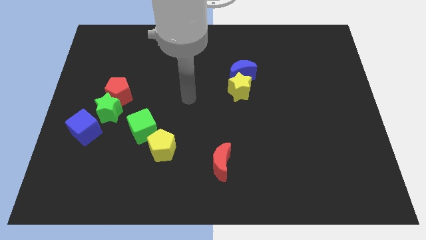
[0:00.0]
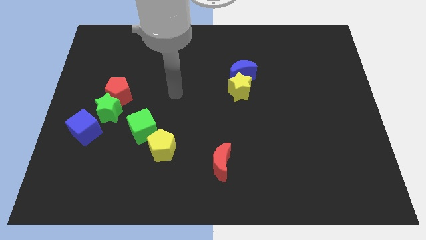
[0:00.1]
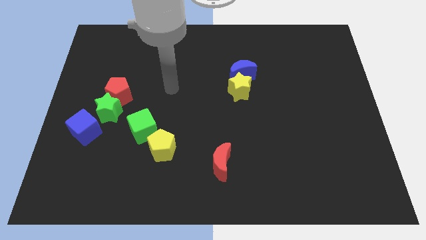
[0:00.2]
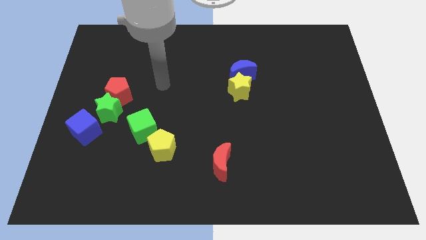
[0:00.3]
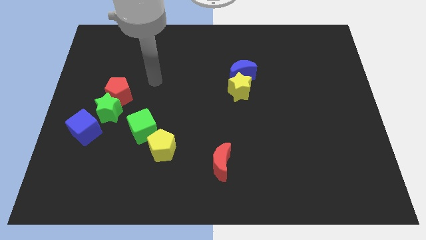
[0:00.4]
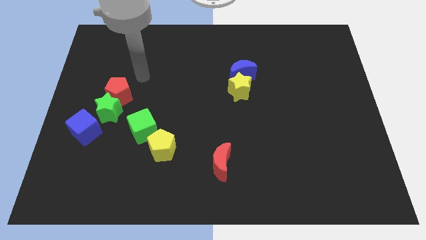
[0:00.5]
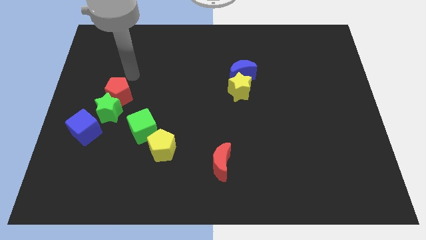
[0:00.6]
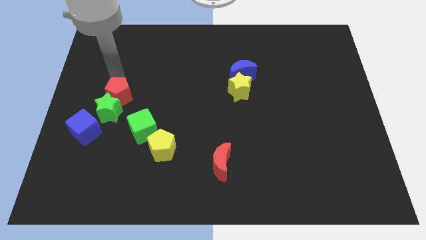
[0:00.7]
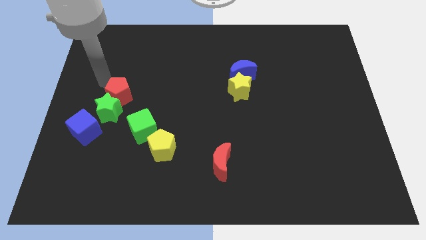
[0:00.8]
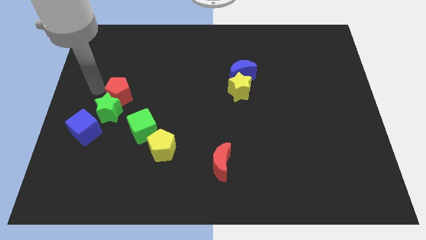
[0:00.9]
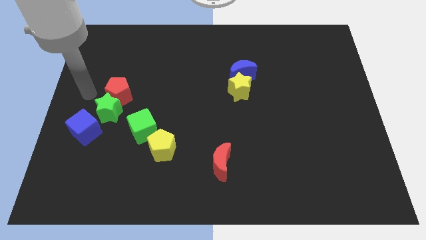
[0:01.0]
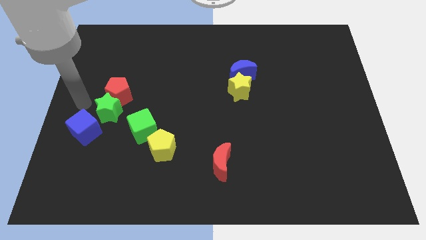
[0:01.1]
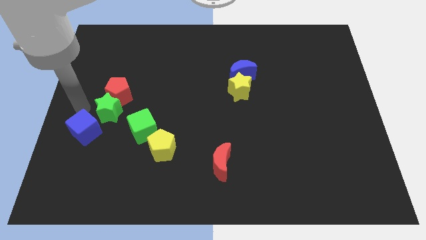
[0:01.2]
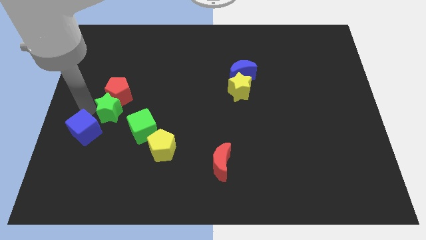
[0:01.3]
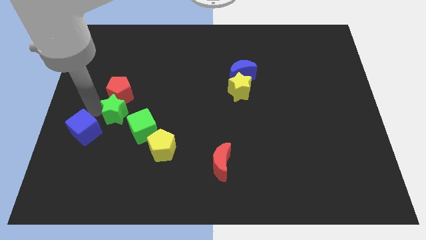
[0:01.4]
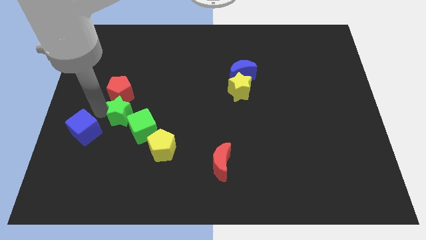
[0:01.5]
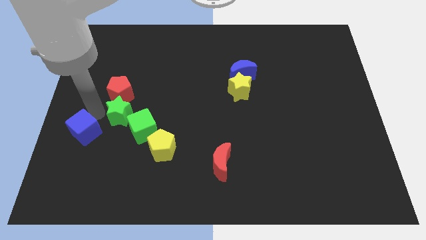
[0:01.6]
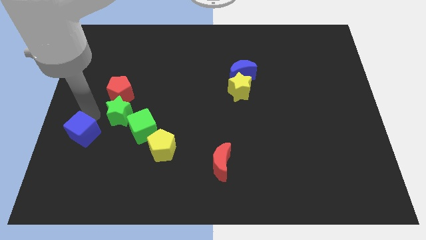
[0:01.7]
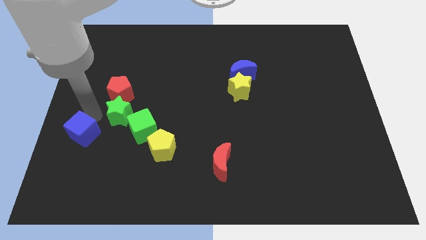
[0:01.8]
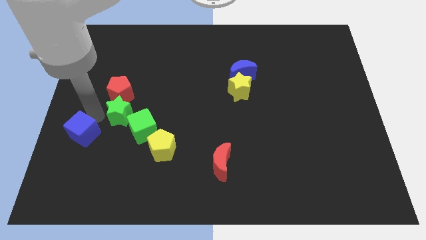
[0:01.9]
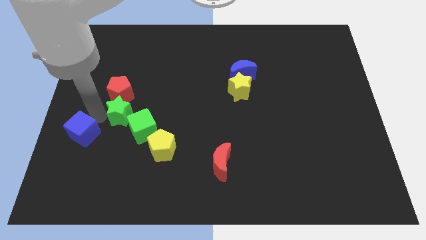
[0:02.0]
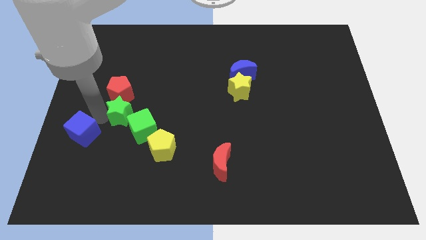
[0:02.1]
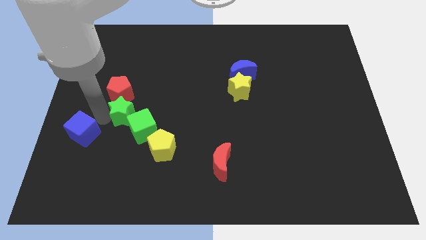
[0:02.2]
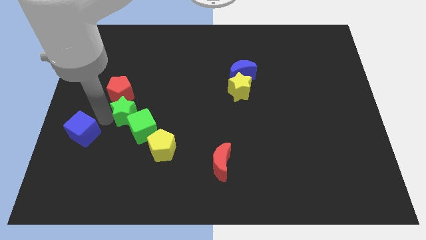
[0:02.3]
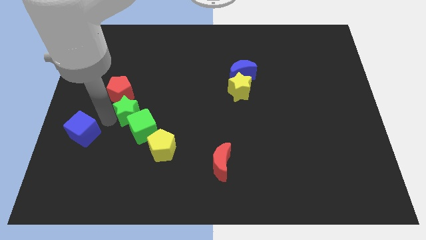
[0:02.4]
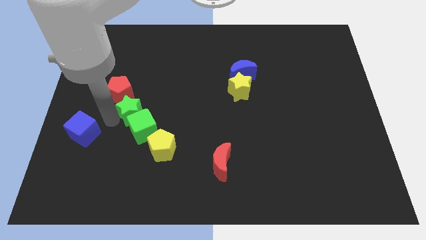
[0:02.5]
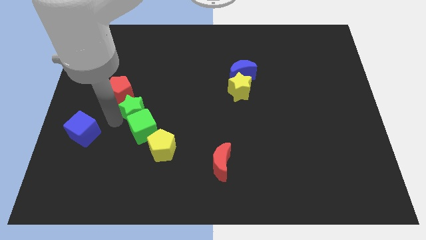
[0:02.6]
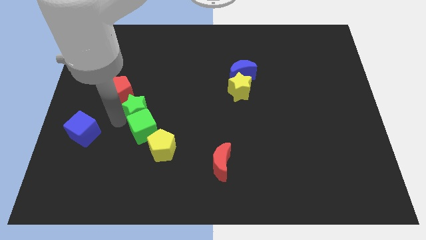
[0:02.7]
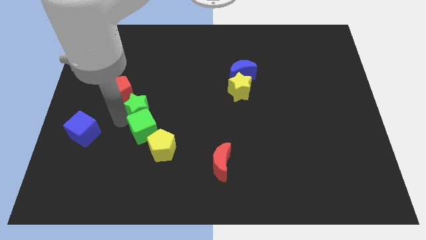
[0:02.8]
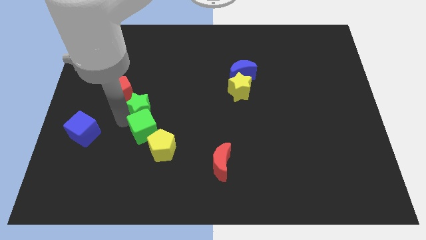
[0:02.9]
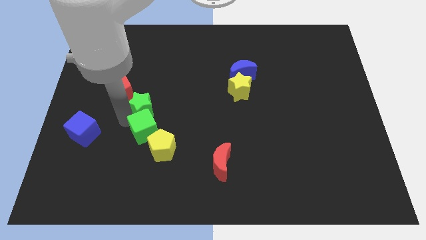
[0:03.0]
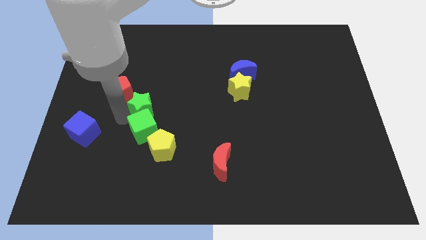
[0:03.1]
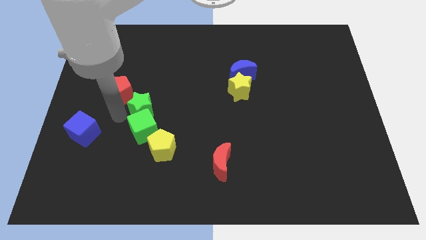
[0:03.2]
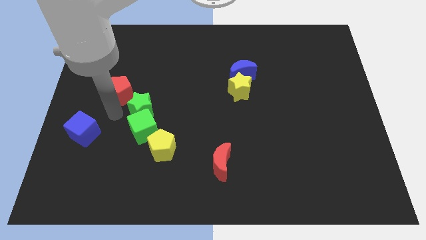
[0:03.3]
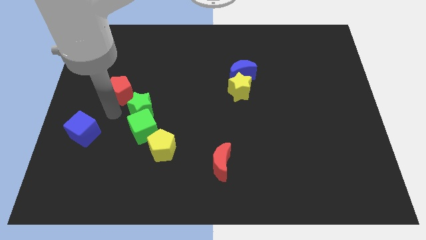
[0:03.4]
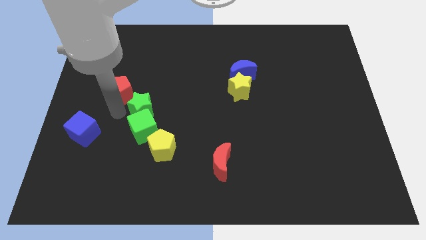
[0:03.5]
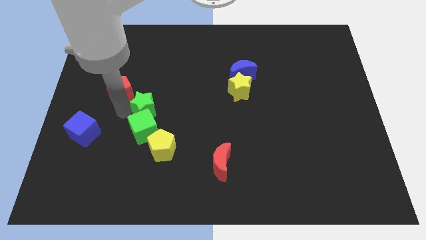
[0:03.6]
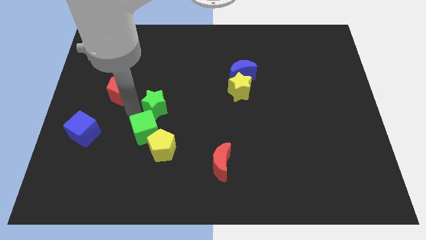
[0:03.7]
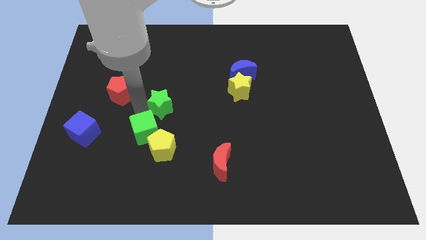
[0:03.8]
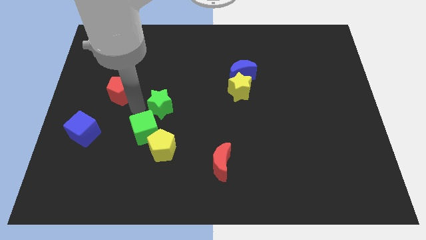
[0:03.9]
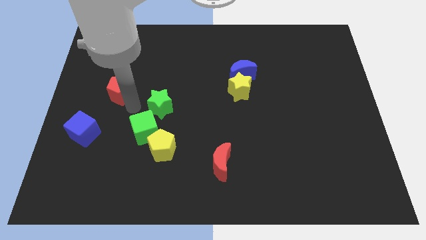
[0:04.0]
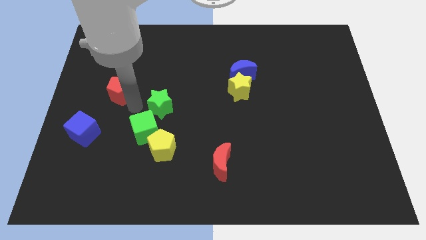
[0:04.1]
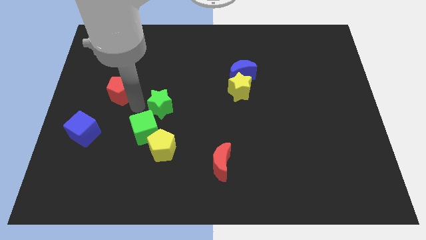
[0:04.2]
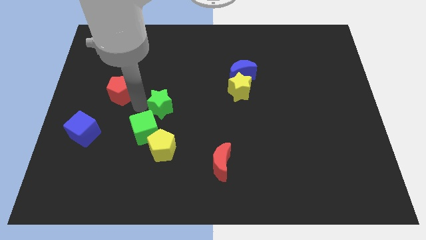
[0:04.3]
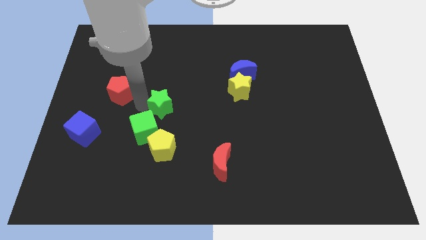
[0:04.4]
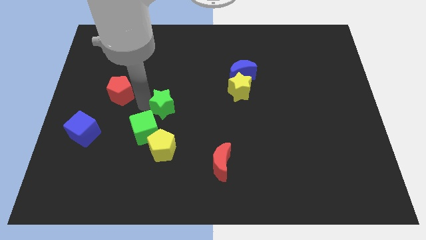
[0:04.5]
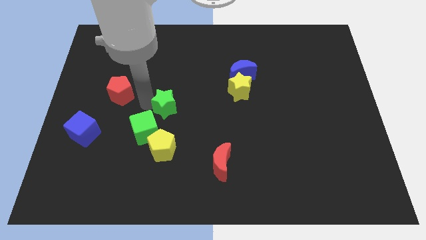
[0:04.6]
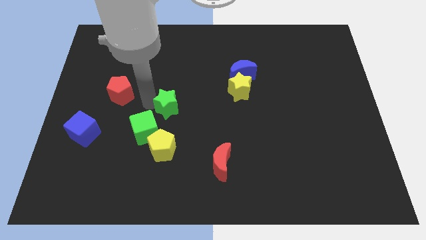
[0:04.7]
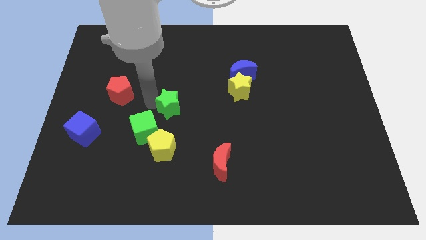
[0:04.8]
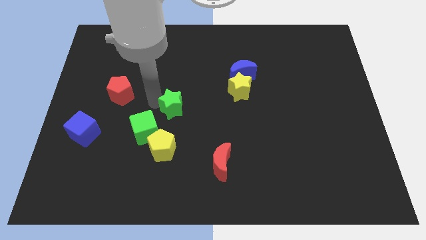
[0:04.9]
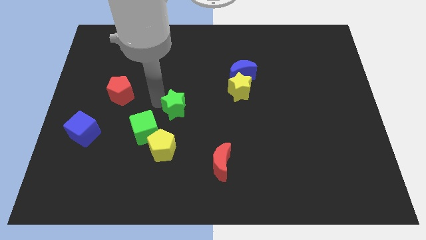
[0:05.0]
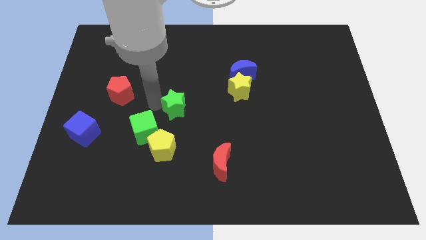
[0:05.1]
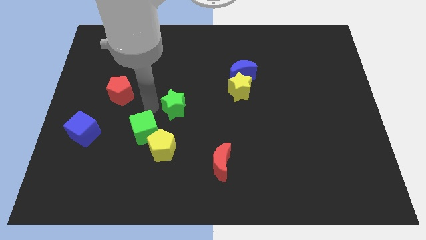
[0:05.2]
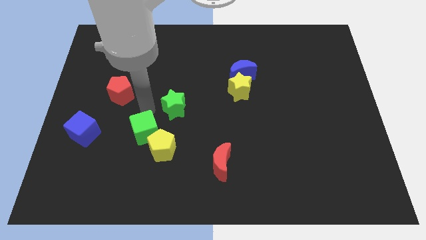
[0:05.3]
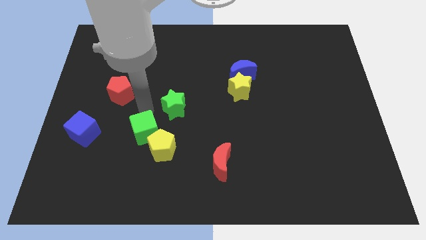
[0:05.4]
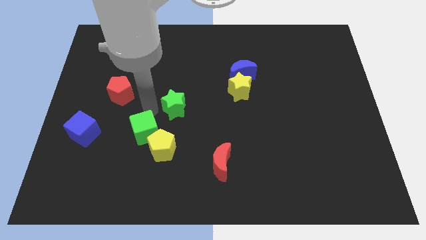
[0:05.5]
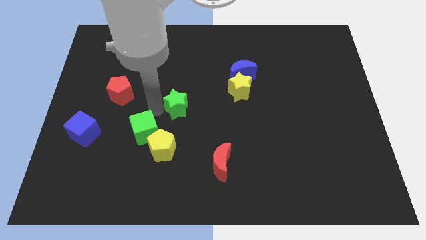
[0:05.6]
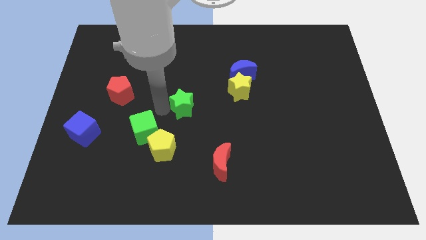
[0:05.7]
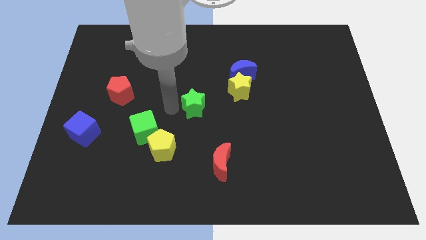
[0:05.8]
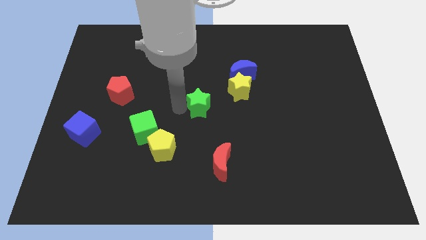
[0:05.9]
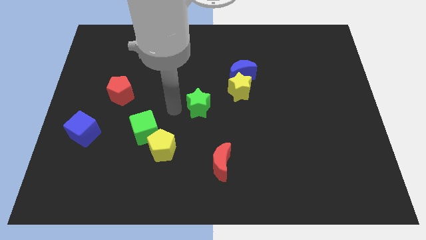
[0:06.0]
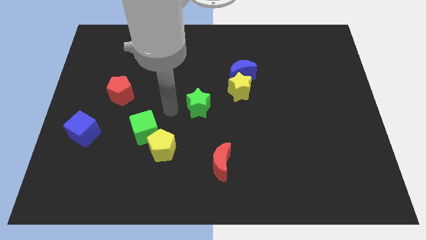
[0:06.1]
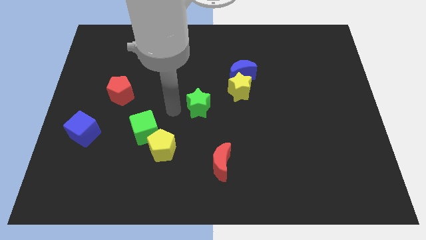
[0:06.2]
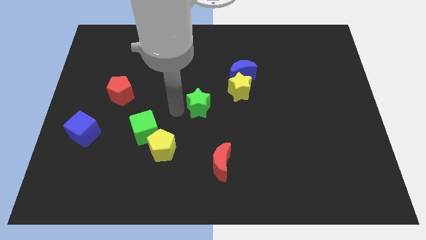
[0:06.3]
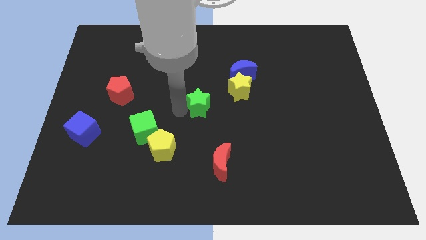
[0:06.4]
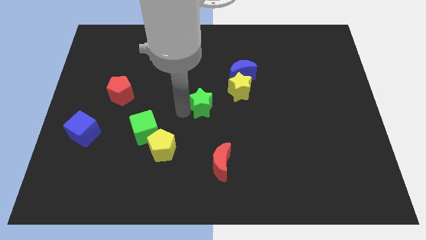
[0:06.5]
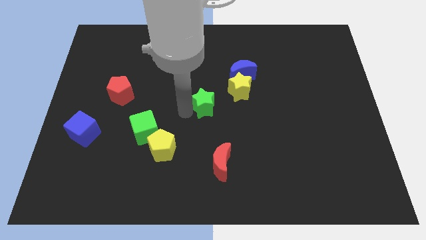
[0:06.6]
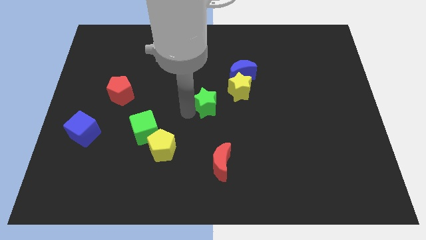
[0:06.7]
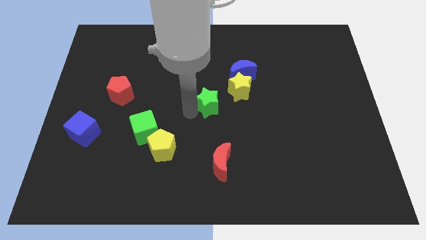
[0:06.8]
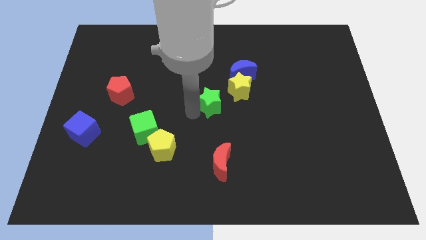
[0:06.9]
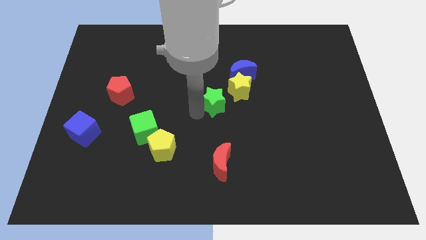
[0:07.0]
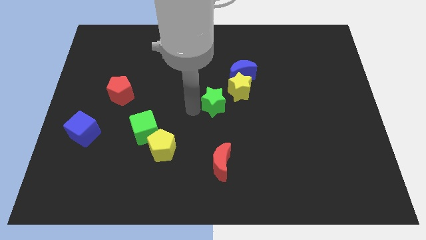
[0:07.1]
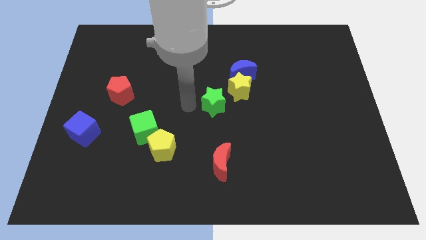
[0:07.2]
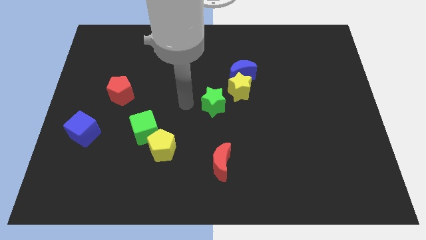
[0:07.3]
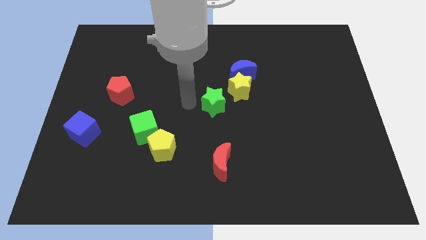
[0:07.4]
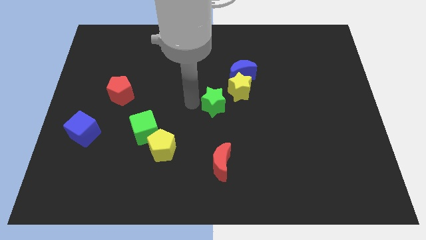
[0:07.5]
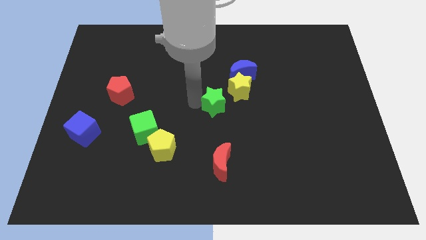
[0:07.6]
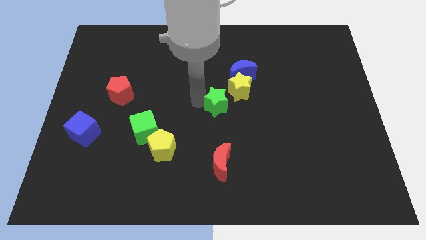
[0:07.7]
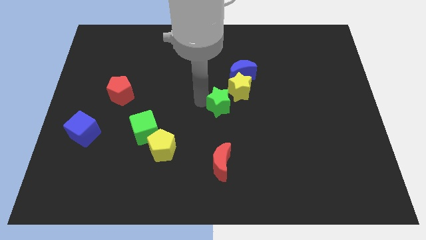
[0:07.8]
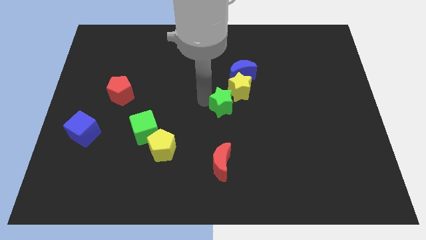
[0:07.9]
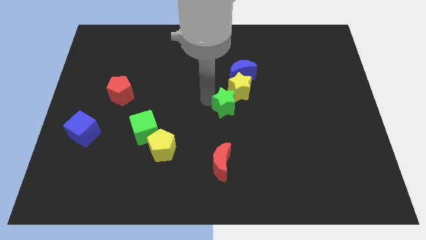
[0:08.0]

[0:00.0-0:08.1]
slide the green star to the bottom of the blue moon
